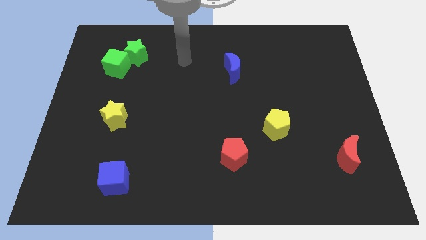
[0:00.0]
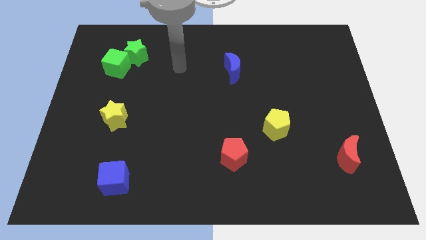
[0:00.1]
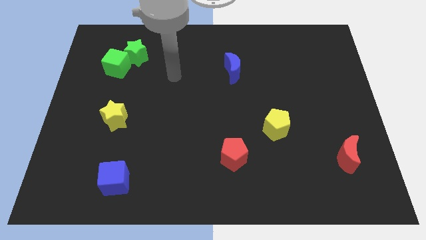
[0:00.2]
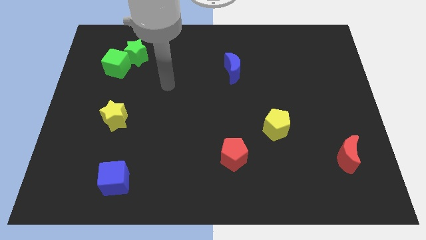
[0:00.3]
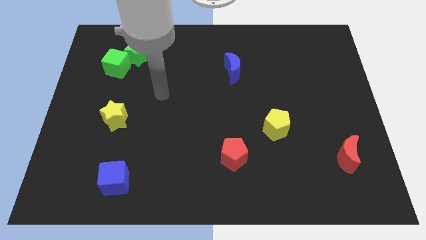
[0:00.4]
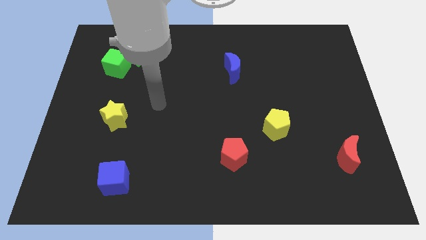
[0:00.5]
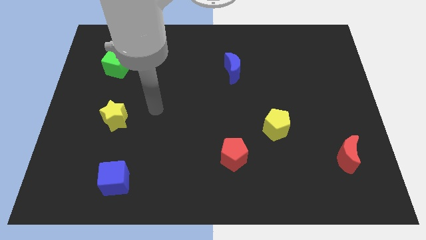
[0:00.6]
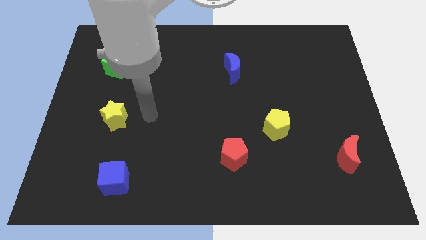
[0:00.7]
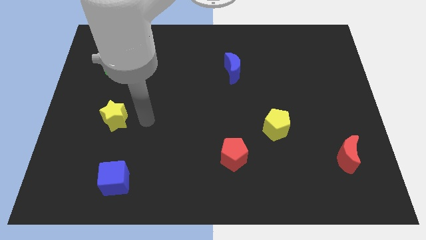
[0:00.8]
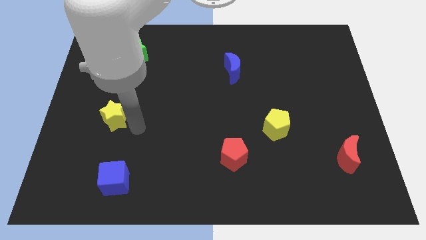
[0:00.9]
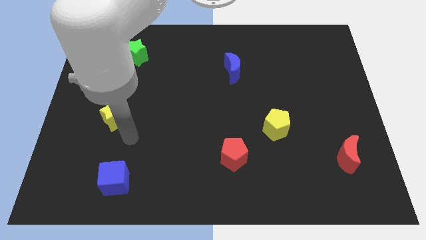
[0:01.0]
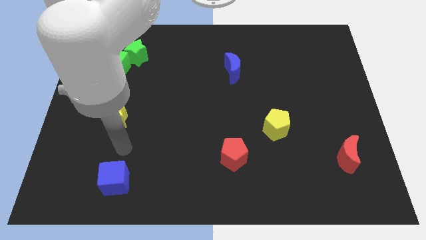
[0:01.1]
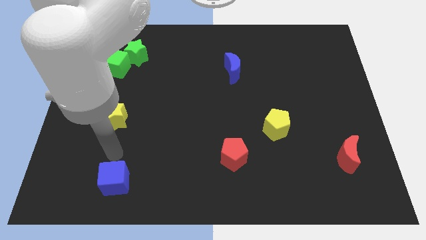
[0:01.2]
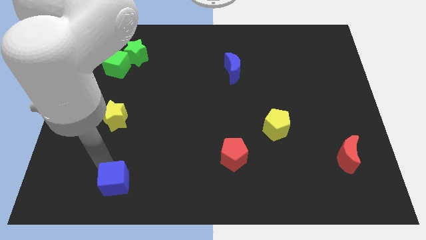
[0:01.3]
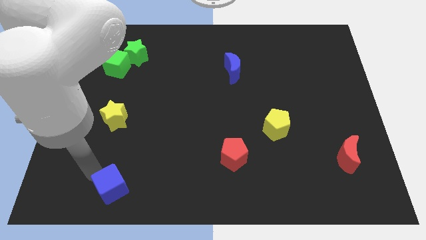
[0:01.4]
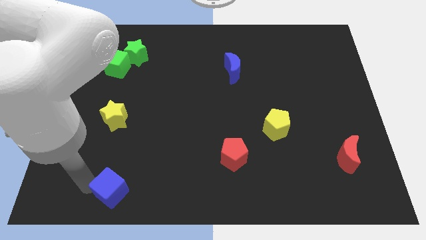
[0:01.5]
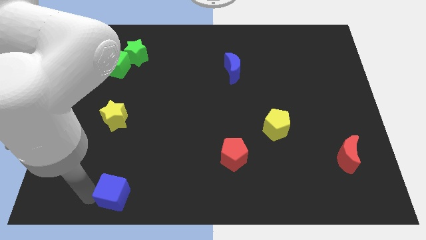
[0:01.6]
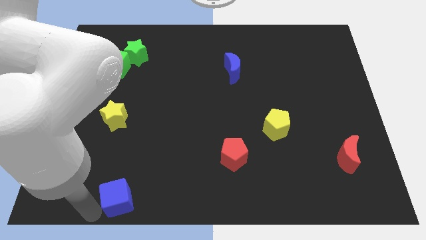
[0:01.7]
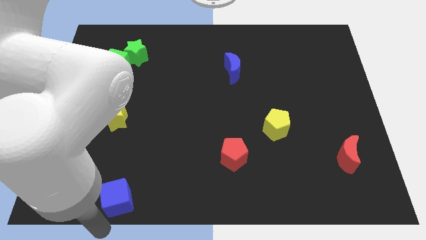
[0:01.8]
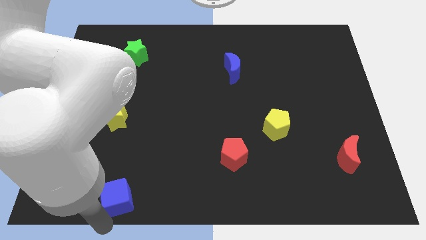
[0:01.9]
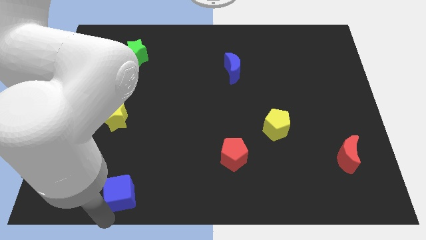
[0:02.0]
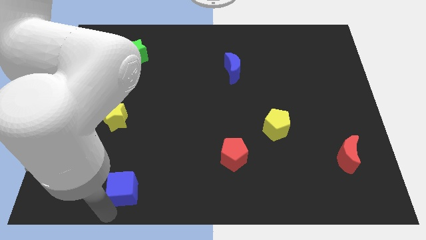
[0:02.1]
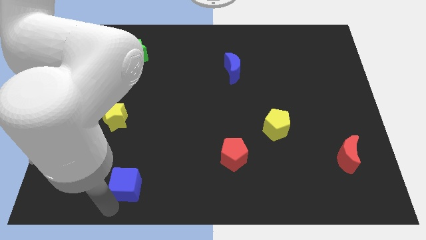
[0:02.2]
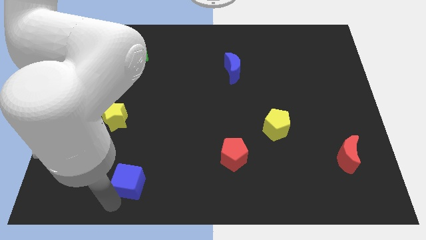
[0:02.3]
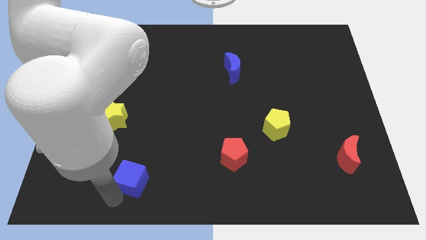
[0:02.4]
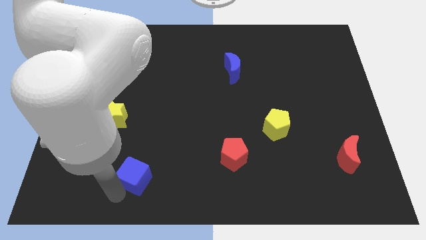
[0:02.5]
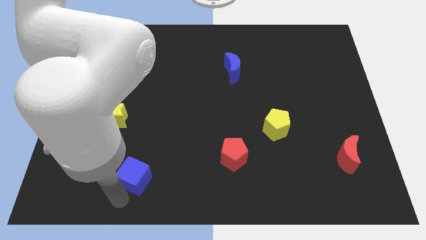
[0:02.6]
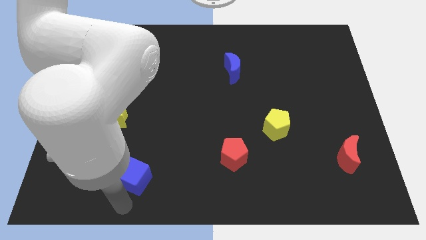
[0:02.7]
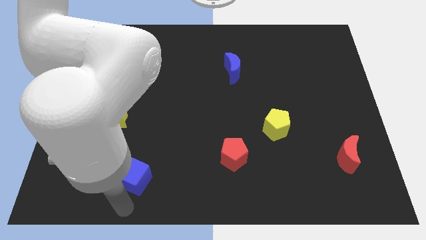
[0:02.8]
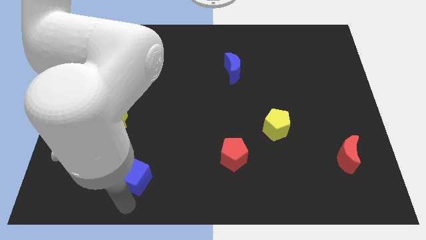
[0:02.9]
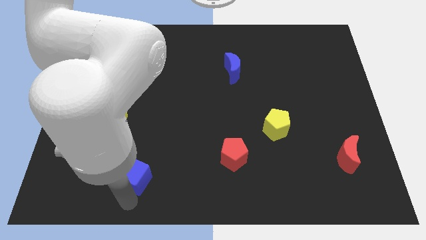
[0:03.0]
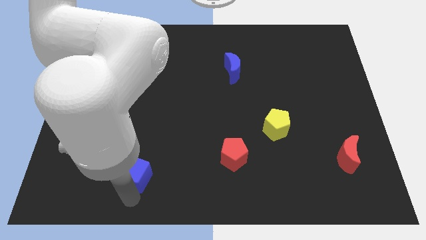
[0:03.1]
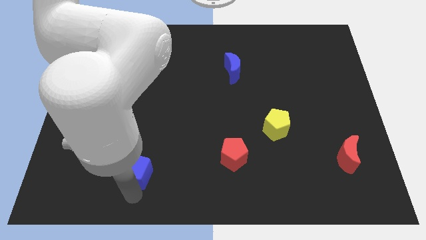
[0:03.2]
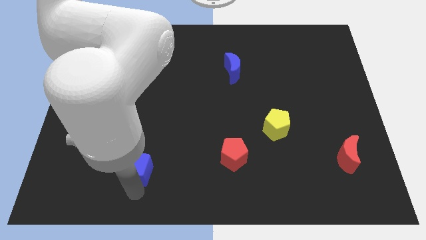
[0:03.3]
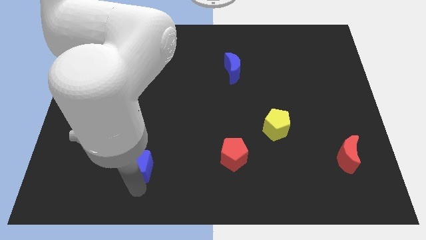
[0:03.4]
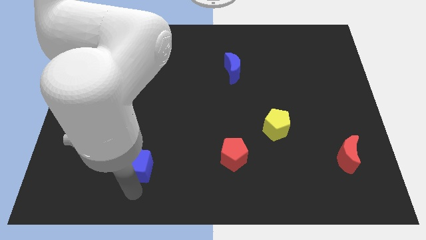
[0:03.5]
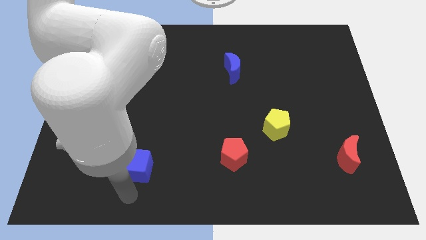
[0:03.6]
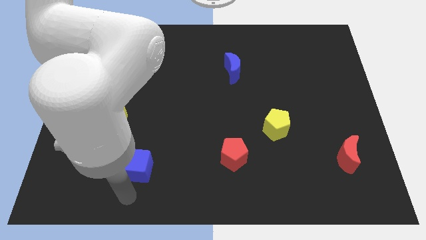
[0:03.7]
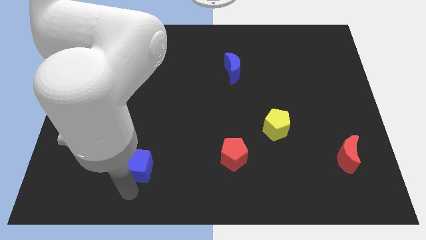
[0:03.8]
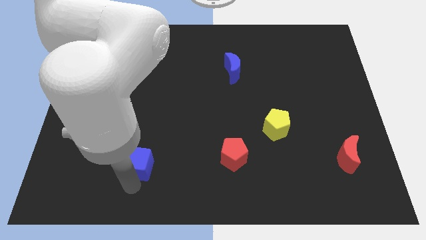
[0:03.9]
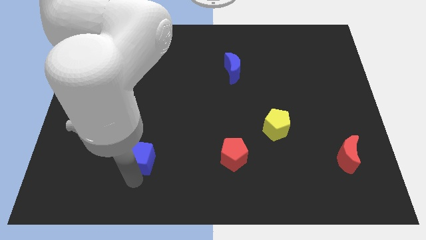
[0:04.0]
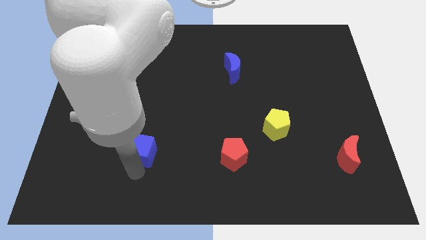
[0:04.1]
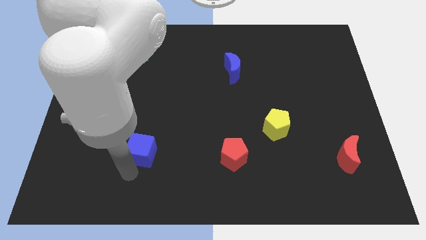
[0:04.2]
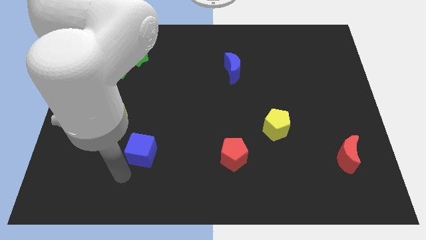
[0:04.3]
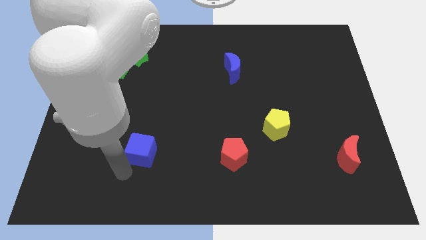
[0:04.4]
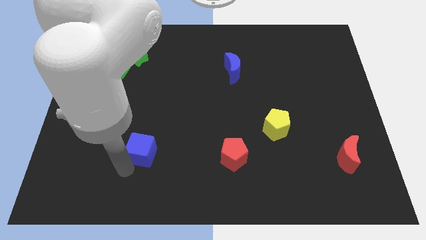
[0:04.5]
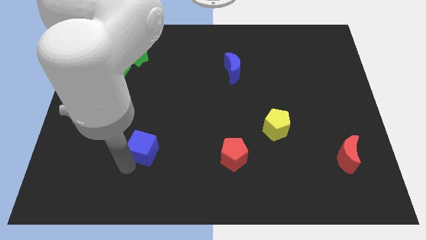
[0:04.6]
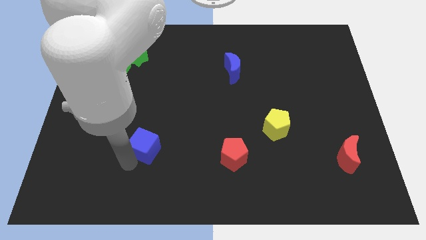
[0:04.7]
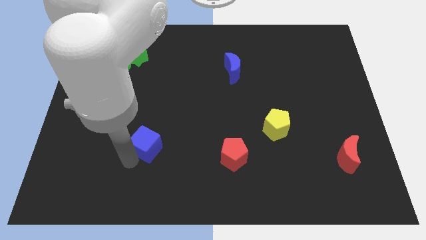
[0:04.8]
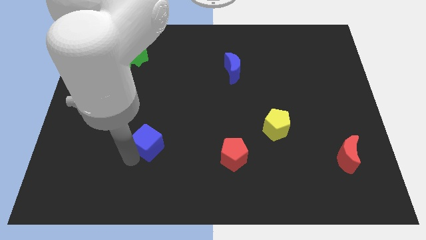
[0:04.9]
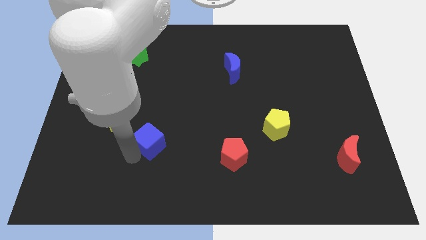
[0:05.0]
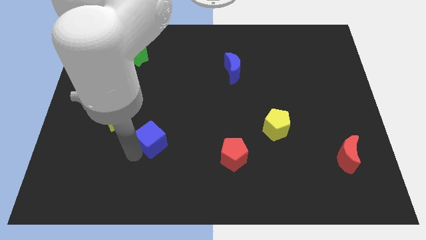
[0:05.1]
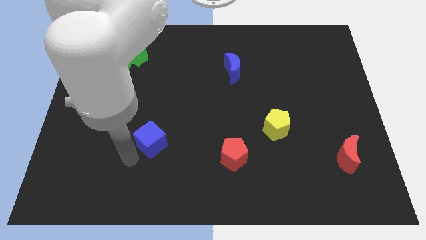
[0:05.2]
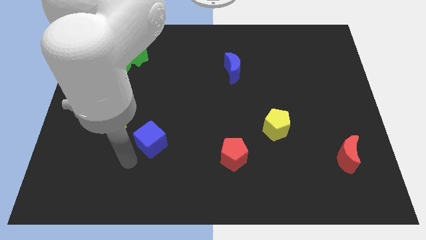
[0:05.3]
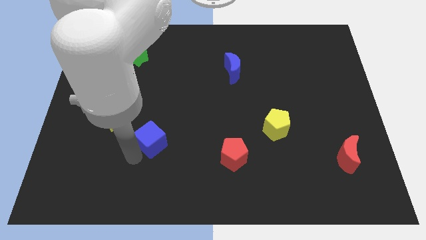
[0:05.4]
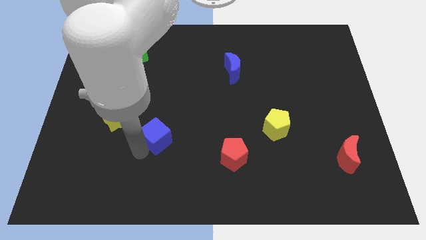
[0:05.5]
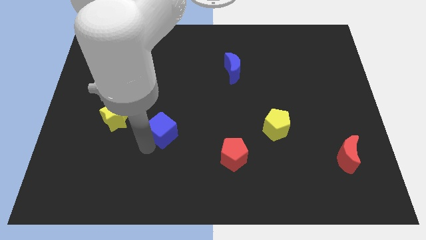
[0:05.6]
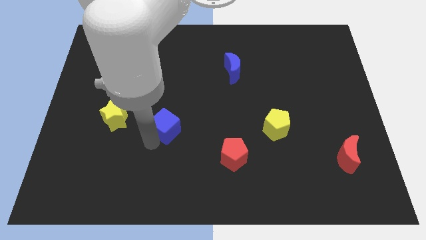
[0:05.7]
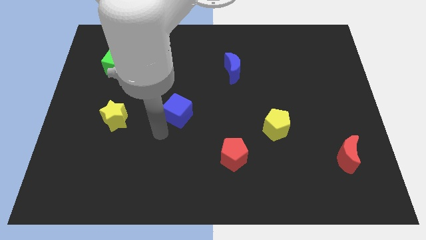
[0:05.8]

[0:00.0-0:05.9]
slide the blue cube to the center

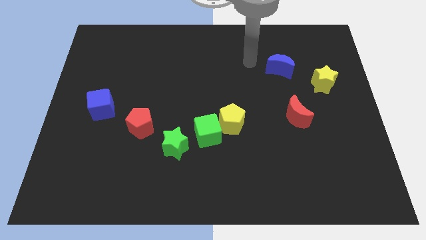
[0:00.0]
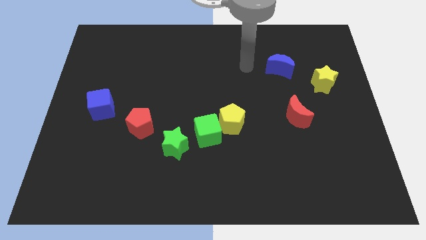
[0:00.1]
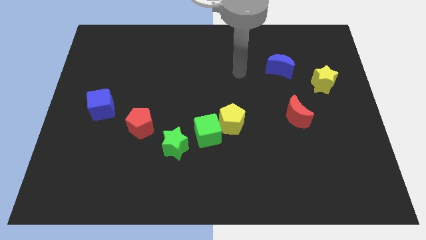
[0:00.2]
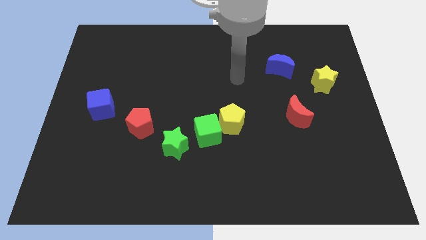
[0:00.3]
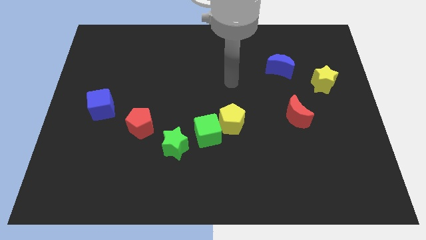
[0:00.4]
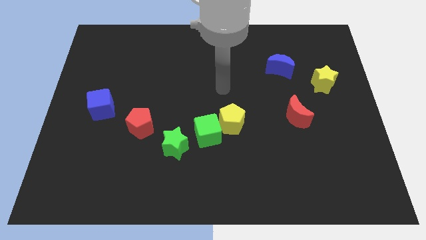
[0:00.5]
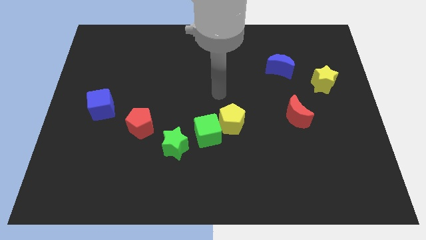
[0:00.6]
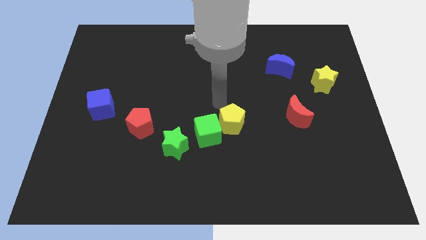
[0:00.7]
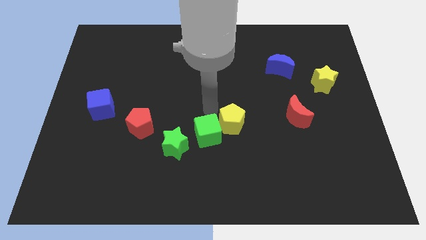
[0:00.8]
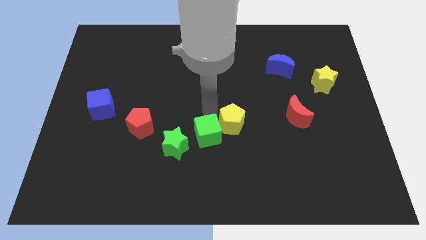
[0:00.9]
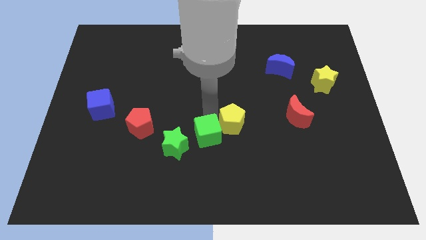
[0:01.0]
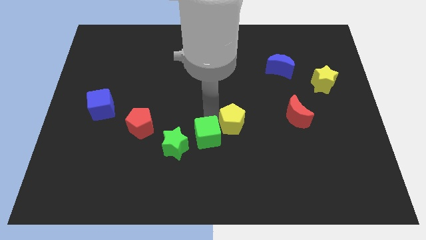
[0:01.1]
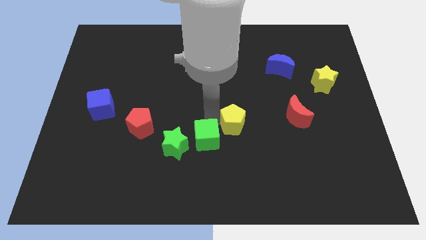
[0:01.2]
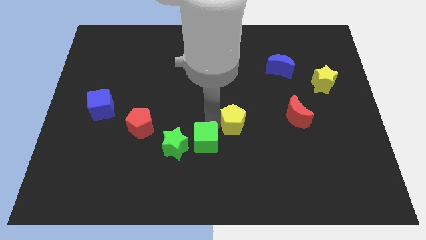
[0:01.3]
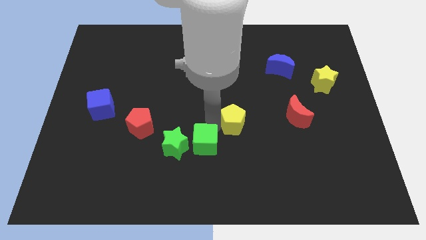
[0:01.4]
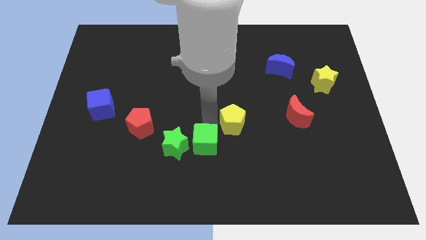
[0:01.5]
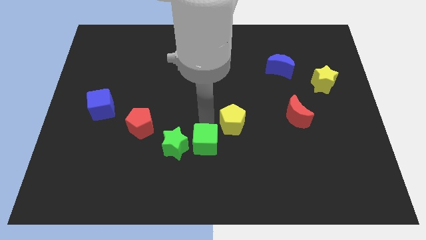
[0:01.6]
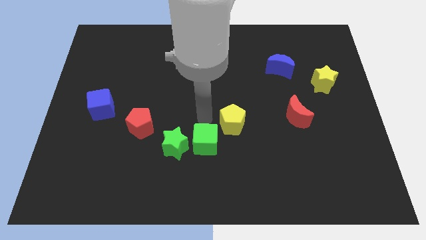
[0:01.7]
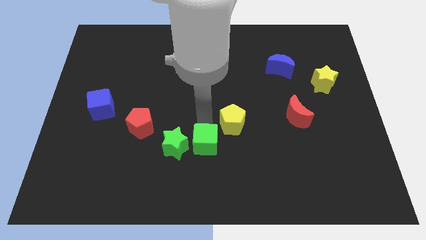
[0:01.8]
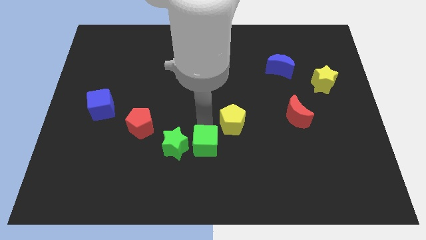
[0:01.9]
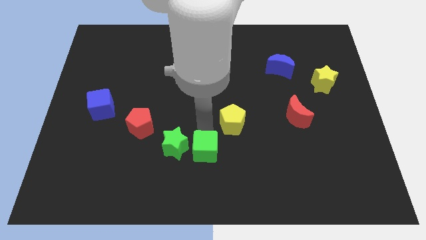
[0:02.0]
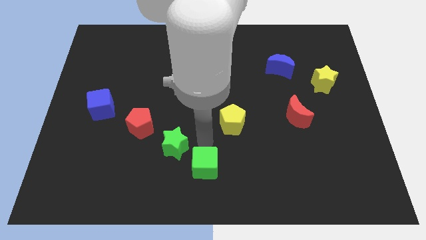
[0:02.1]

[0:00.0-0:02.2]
move the green cube to the bottom
